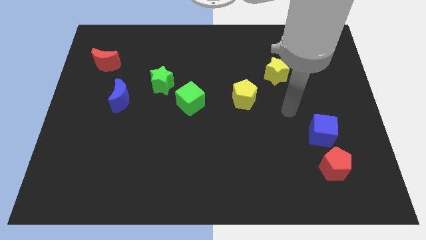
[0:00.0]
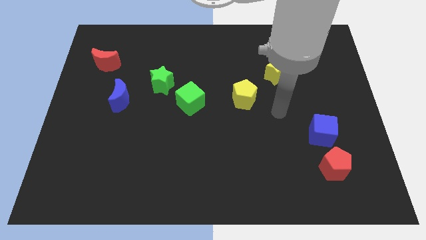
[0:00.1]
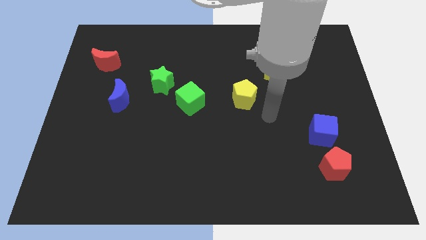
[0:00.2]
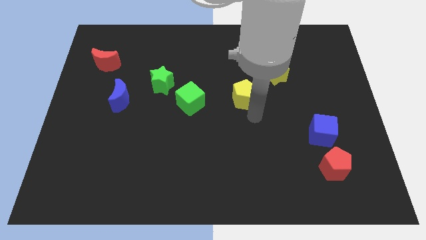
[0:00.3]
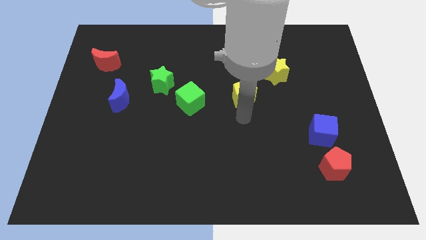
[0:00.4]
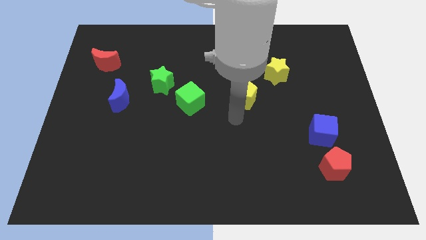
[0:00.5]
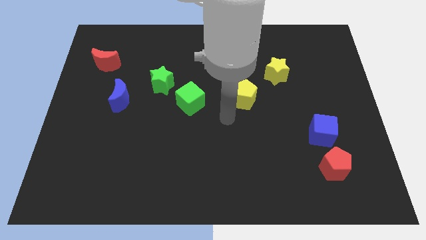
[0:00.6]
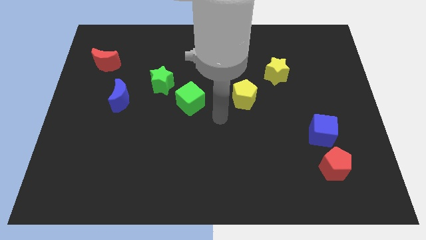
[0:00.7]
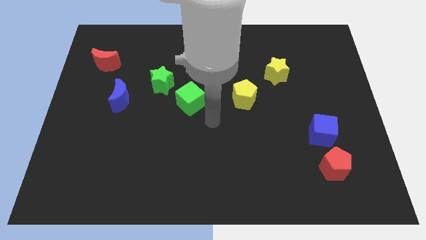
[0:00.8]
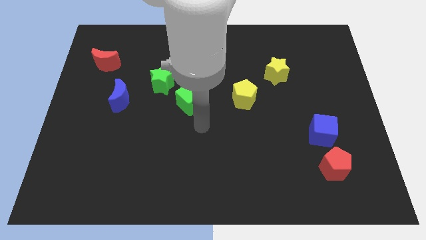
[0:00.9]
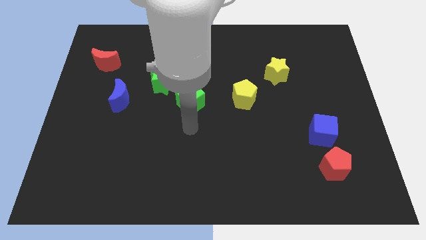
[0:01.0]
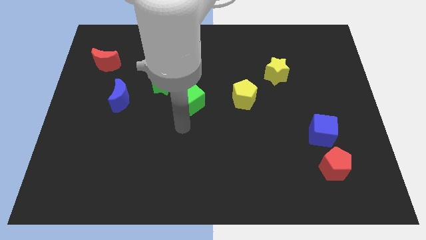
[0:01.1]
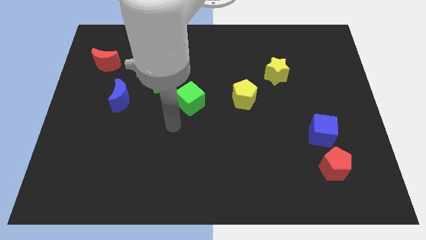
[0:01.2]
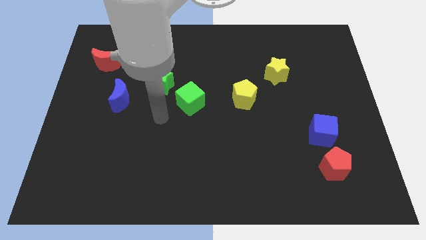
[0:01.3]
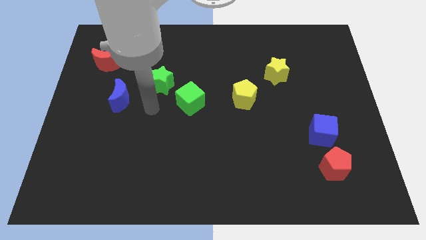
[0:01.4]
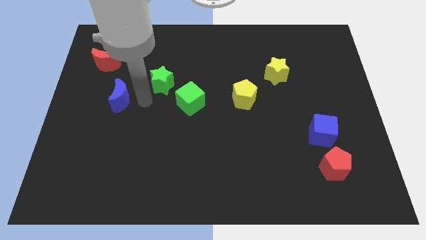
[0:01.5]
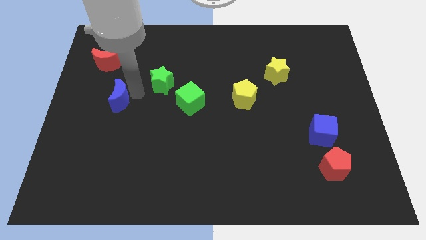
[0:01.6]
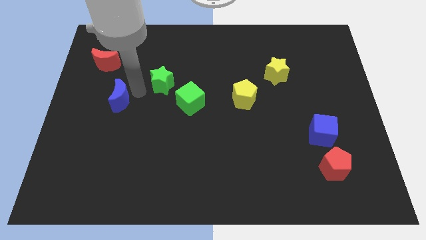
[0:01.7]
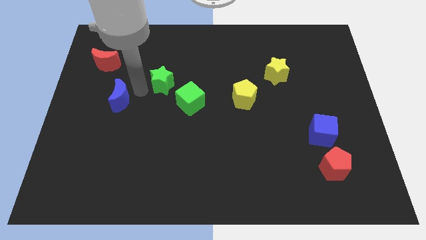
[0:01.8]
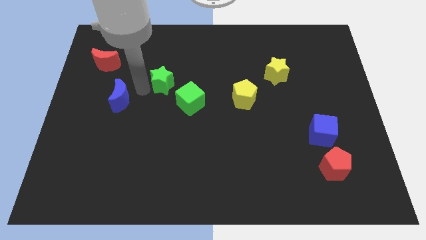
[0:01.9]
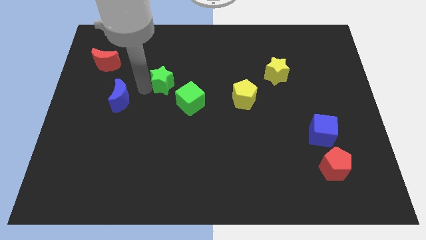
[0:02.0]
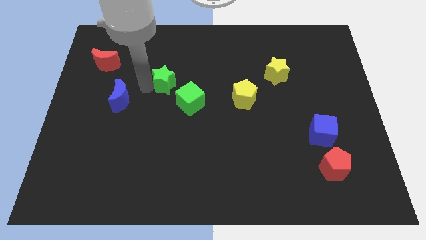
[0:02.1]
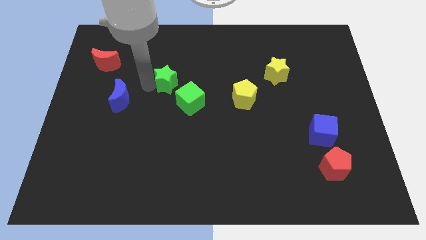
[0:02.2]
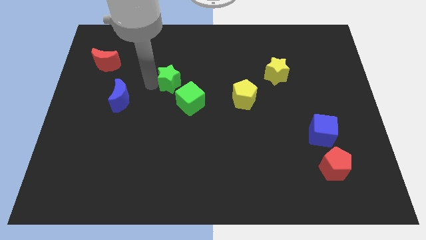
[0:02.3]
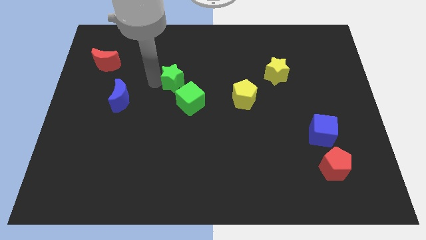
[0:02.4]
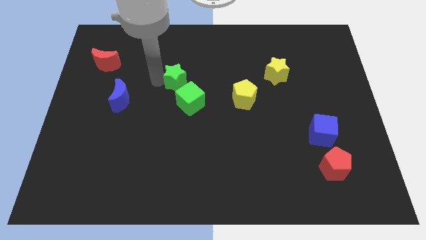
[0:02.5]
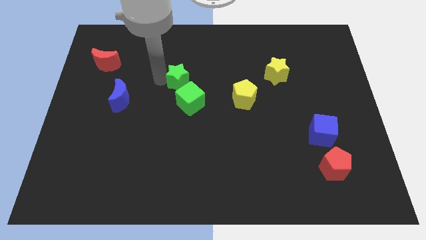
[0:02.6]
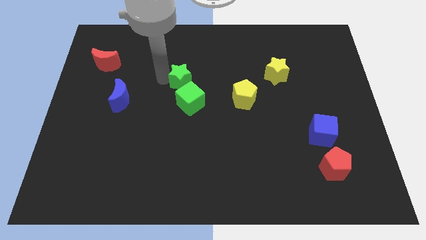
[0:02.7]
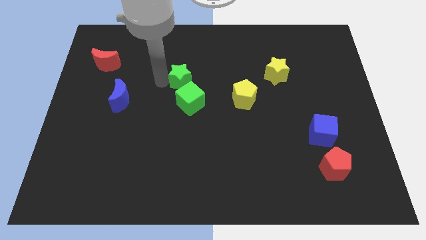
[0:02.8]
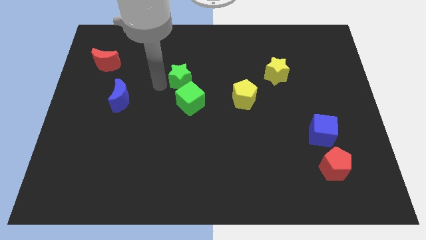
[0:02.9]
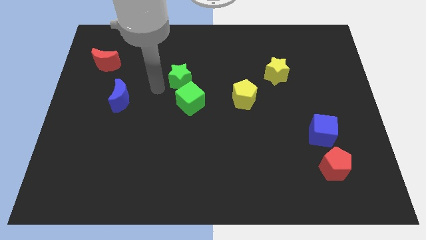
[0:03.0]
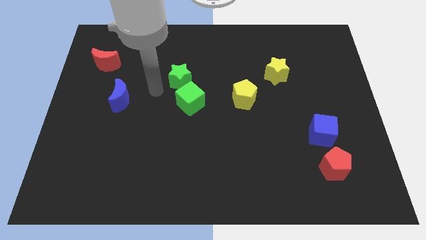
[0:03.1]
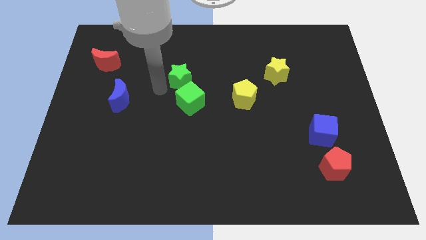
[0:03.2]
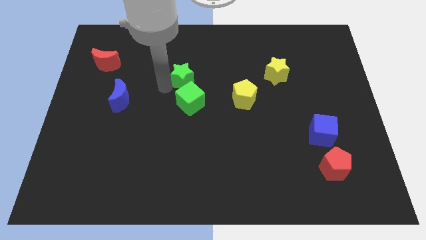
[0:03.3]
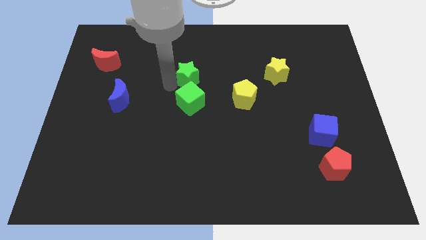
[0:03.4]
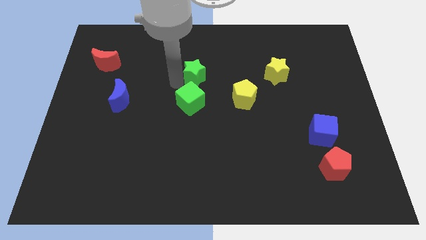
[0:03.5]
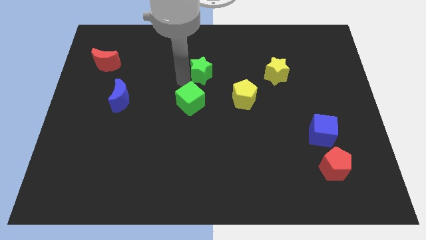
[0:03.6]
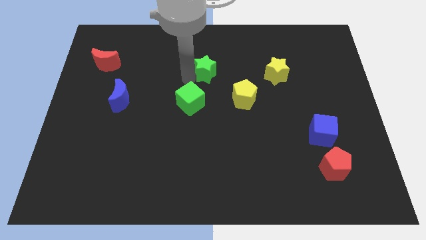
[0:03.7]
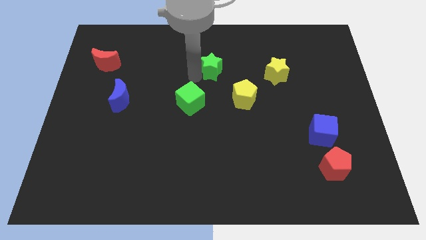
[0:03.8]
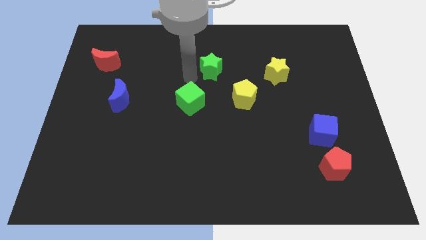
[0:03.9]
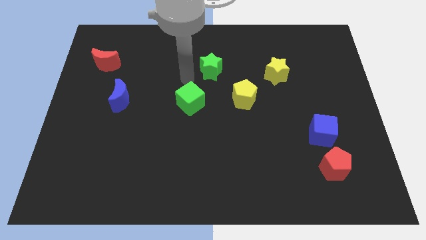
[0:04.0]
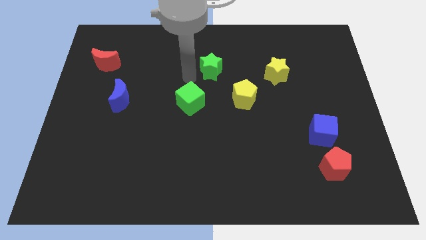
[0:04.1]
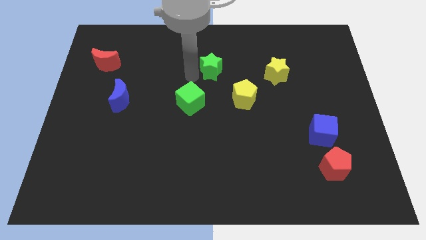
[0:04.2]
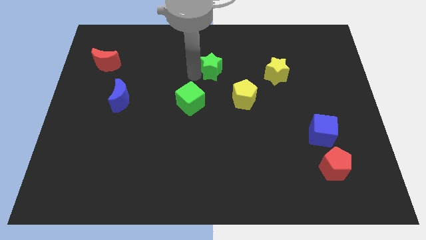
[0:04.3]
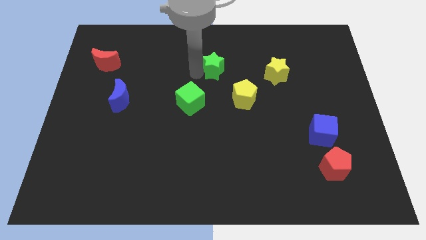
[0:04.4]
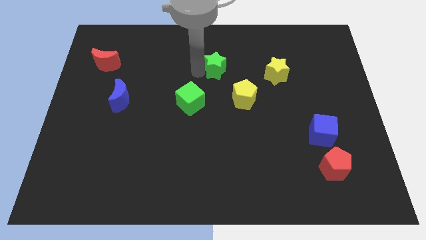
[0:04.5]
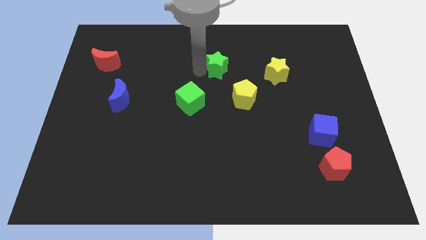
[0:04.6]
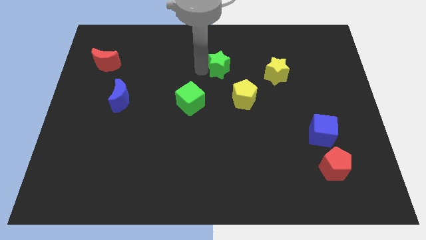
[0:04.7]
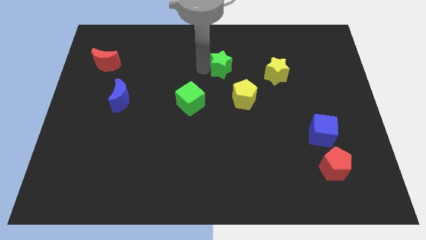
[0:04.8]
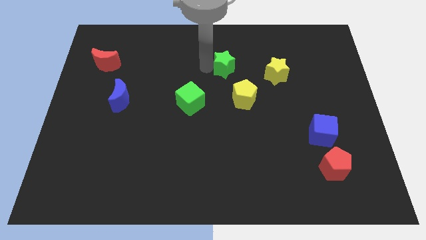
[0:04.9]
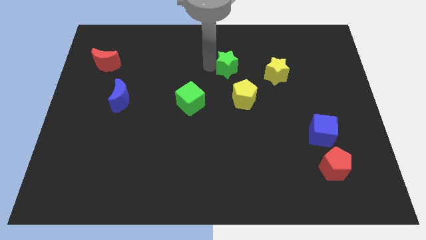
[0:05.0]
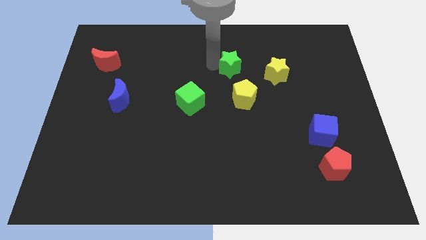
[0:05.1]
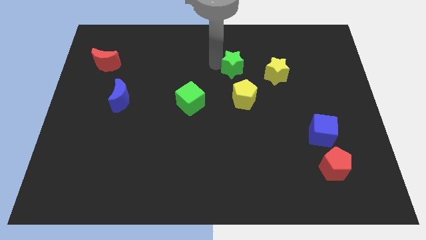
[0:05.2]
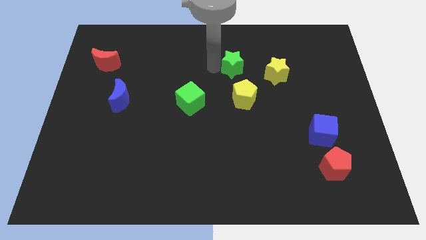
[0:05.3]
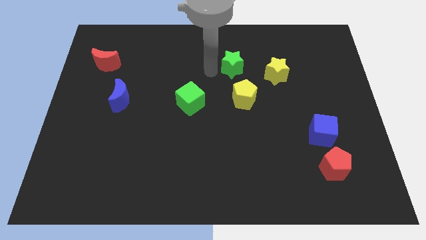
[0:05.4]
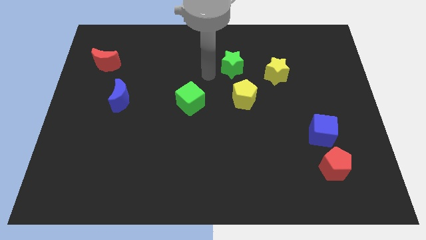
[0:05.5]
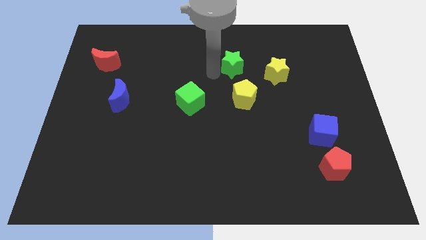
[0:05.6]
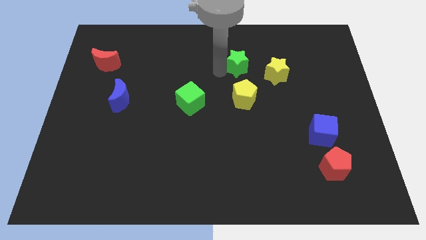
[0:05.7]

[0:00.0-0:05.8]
slide the green star to the top left side of the yellow star

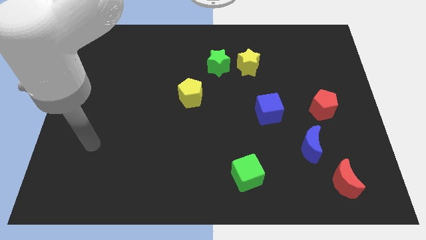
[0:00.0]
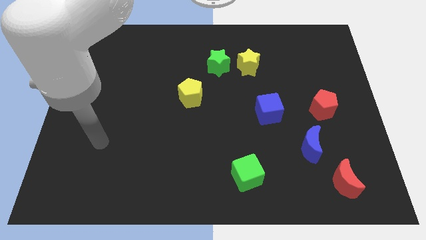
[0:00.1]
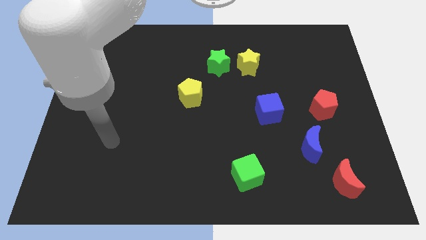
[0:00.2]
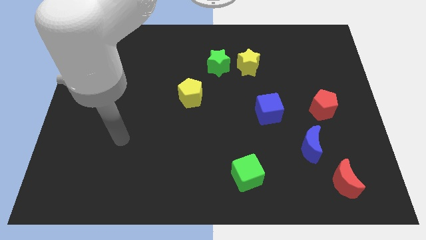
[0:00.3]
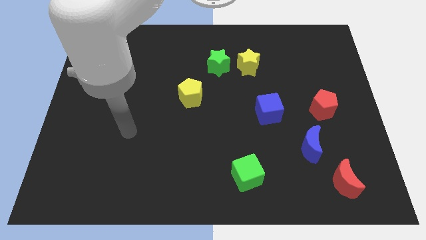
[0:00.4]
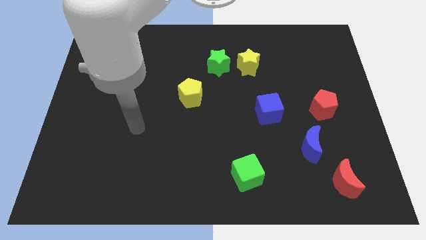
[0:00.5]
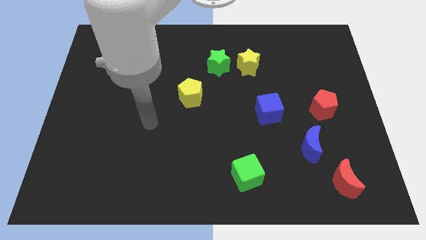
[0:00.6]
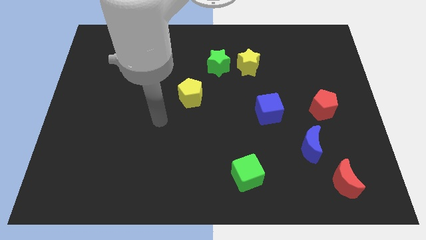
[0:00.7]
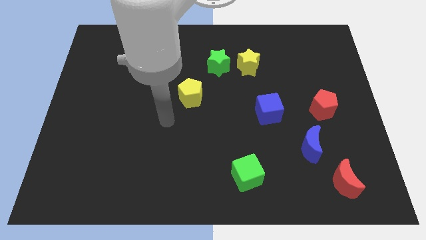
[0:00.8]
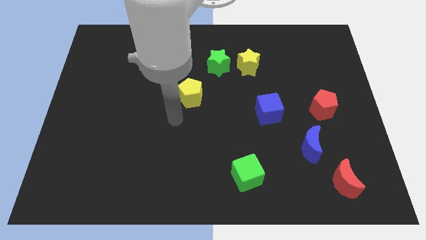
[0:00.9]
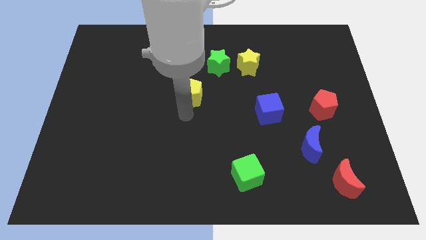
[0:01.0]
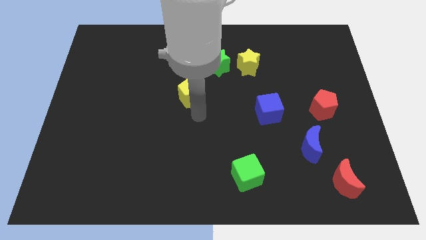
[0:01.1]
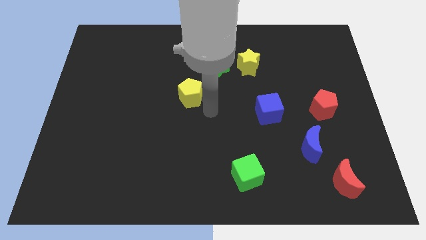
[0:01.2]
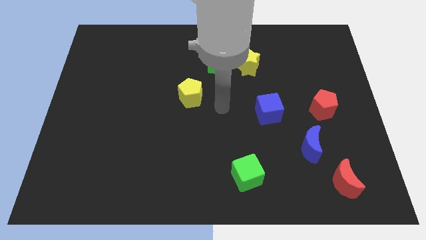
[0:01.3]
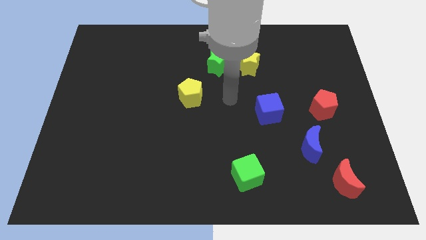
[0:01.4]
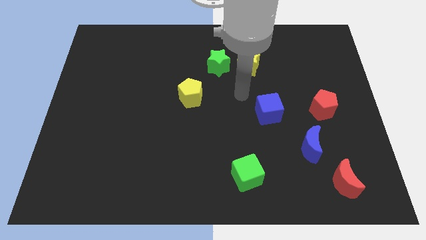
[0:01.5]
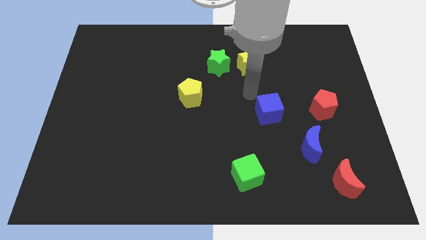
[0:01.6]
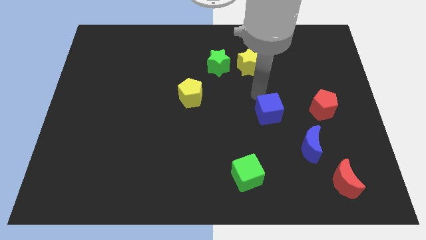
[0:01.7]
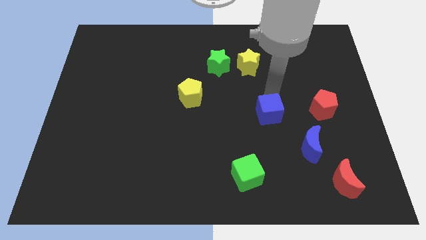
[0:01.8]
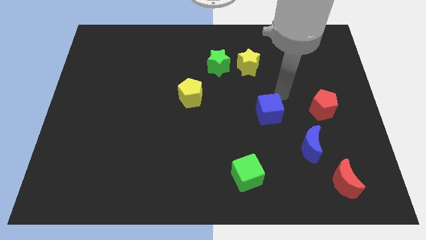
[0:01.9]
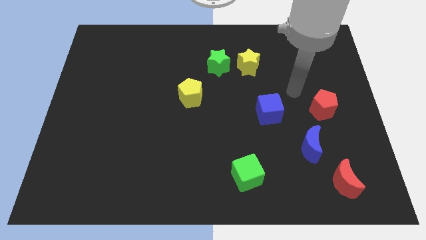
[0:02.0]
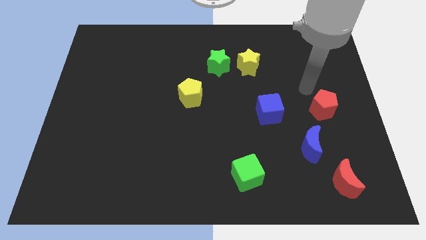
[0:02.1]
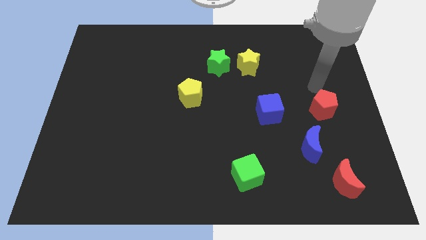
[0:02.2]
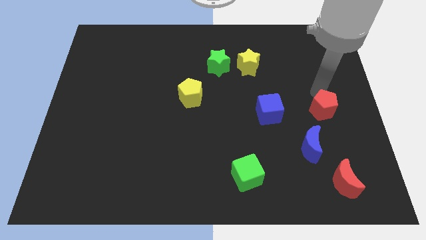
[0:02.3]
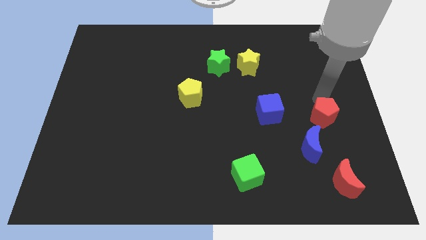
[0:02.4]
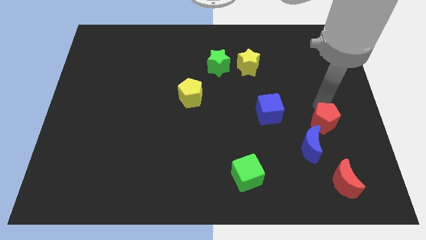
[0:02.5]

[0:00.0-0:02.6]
move the red pentagon to the top side of the red moon
